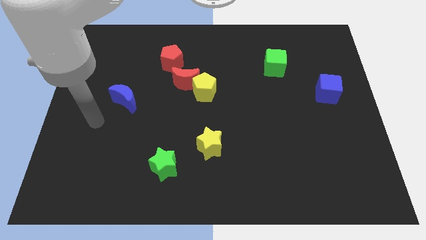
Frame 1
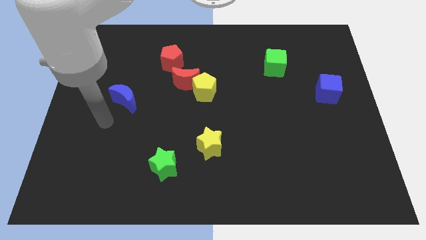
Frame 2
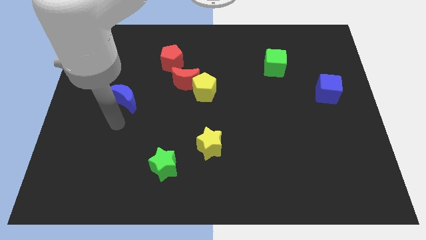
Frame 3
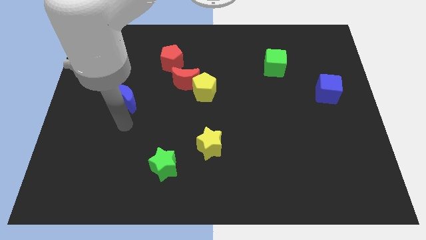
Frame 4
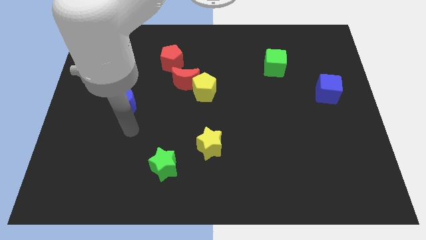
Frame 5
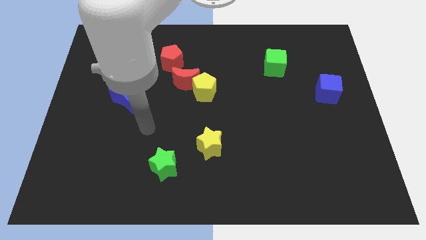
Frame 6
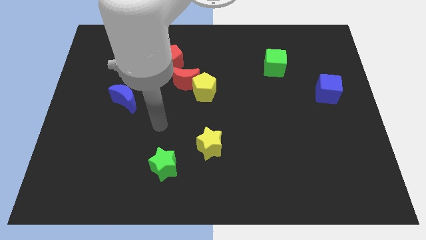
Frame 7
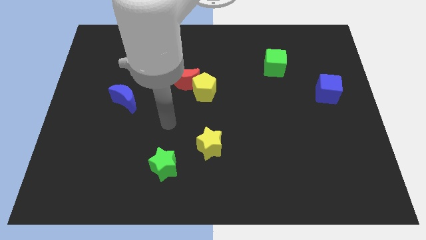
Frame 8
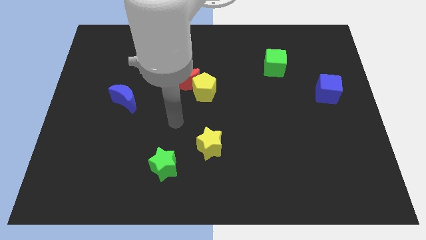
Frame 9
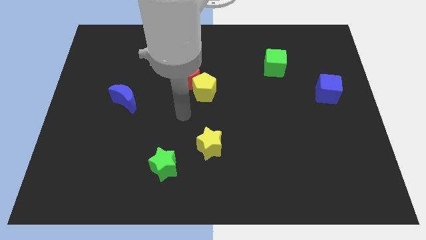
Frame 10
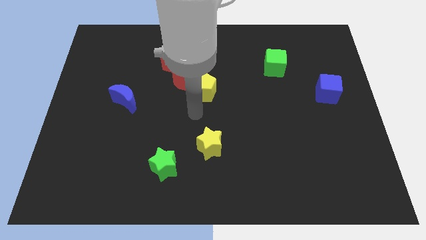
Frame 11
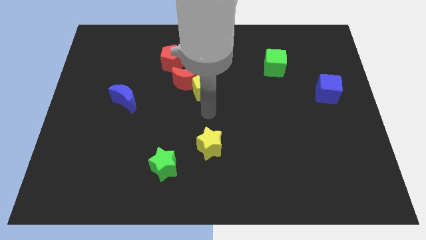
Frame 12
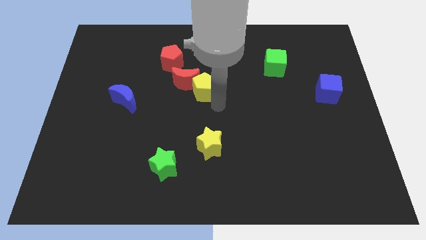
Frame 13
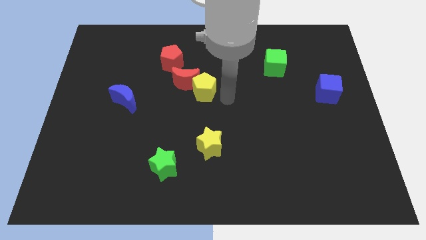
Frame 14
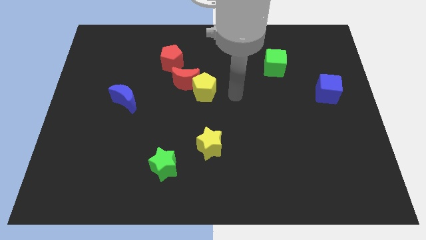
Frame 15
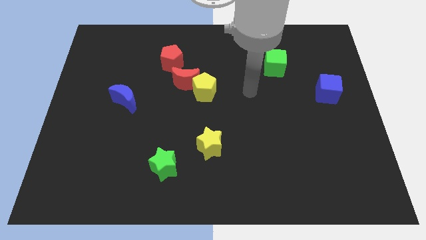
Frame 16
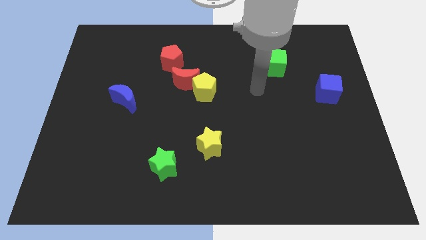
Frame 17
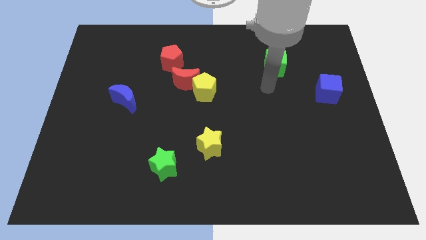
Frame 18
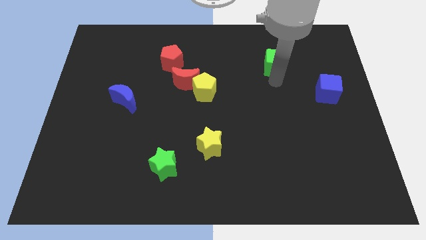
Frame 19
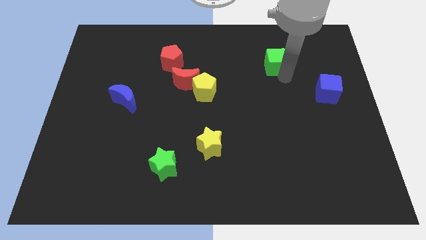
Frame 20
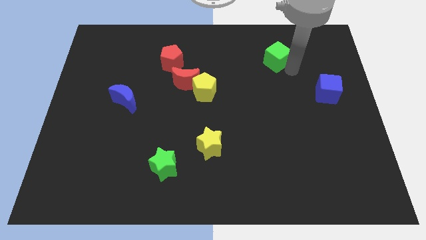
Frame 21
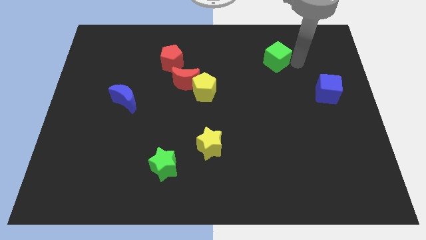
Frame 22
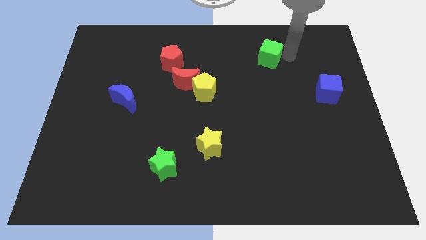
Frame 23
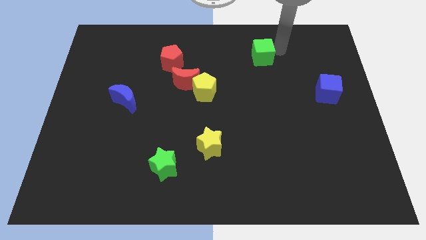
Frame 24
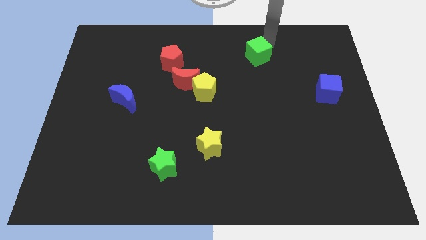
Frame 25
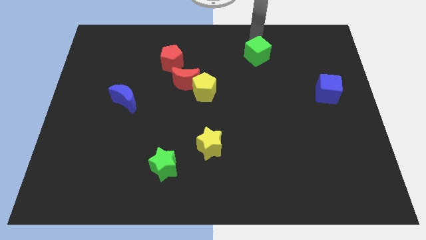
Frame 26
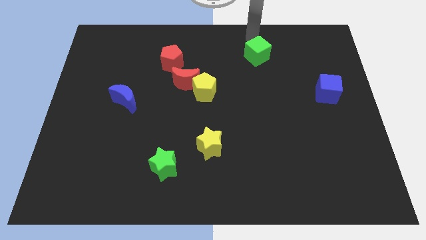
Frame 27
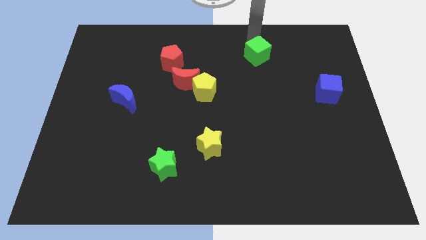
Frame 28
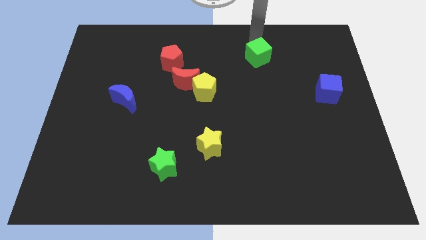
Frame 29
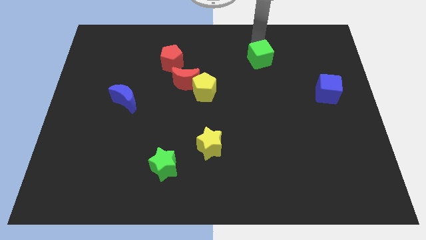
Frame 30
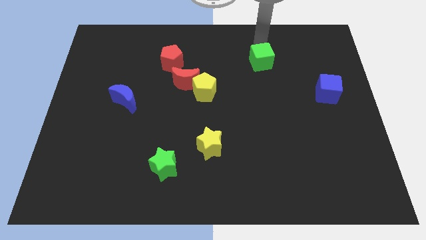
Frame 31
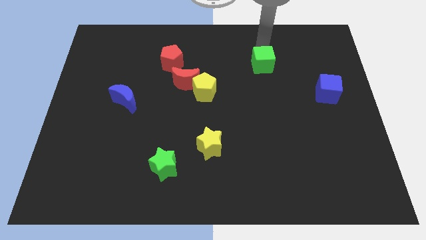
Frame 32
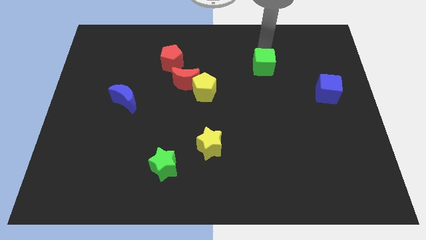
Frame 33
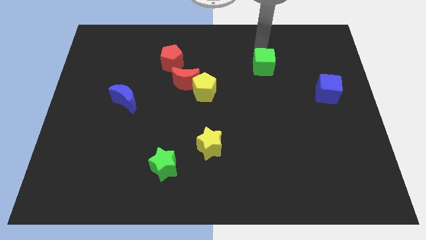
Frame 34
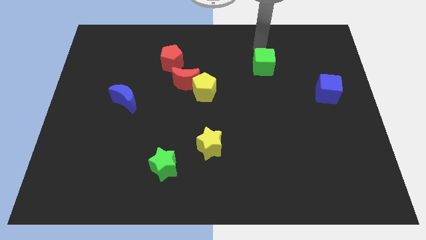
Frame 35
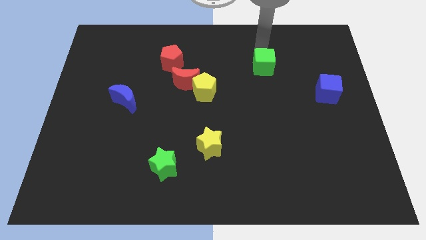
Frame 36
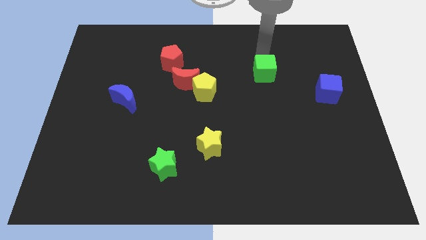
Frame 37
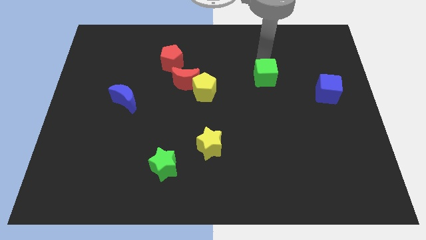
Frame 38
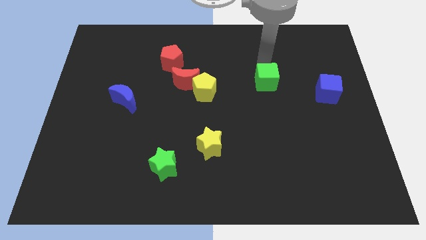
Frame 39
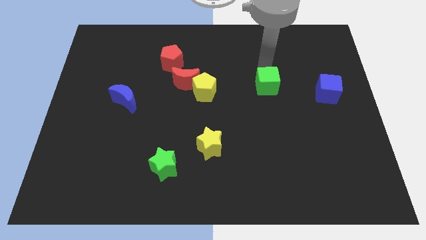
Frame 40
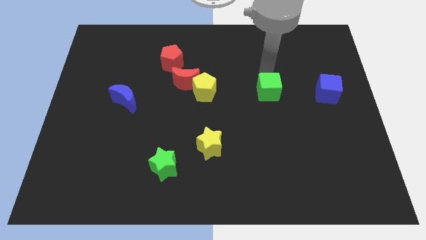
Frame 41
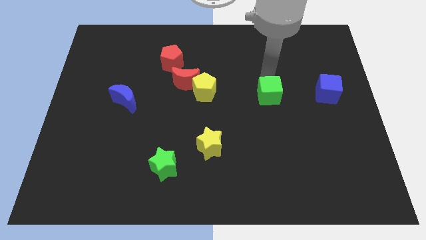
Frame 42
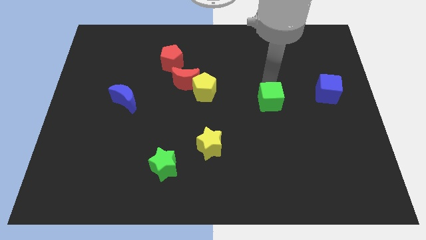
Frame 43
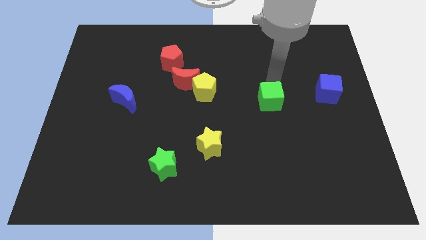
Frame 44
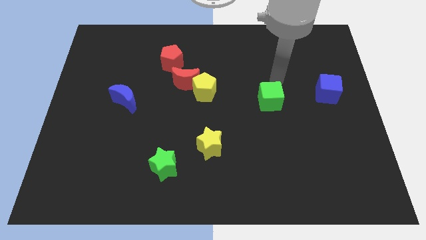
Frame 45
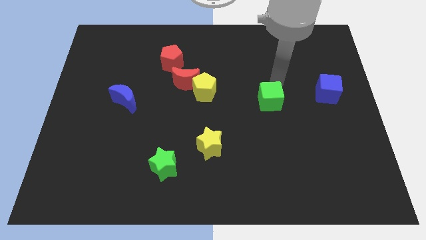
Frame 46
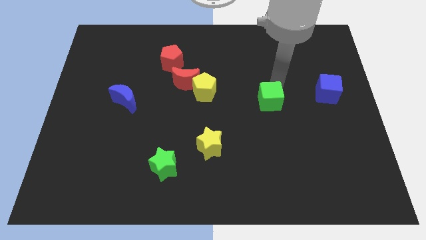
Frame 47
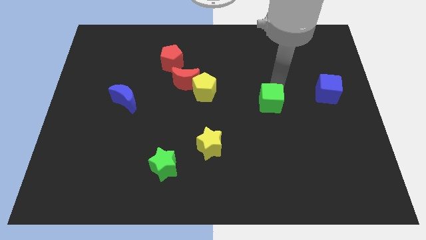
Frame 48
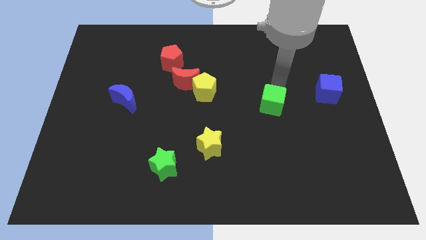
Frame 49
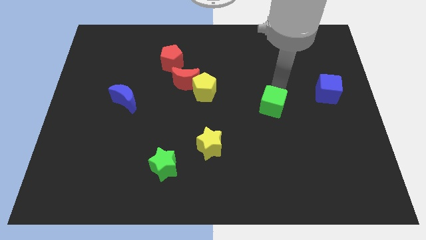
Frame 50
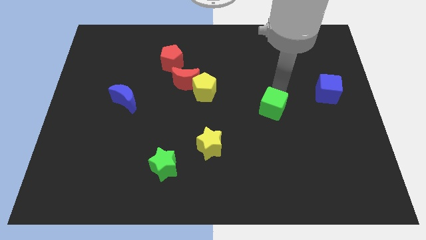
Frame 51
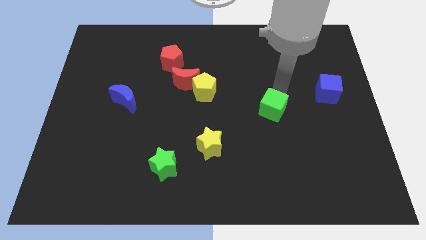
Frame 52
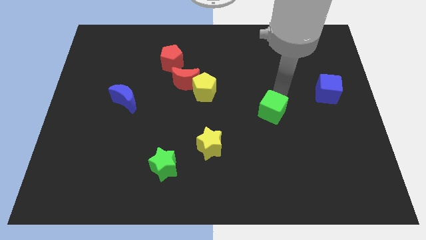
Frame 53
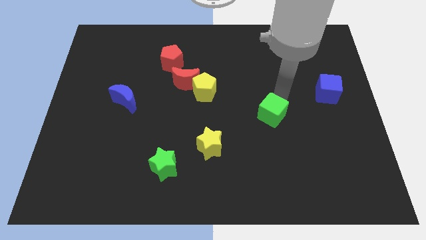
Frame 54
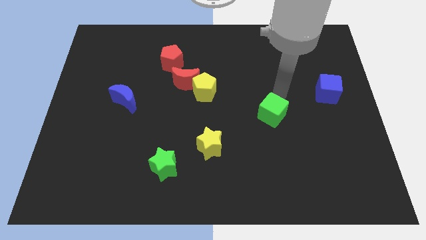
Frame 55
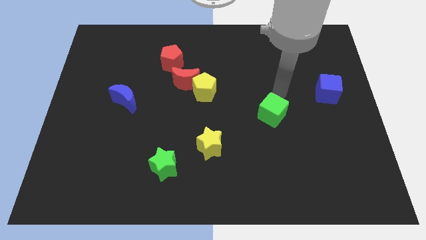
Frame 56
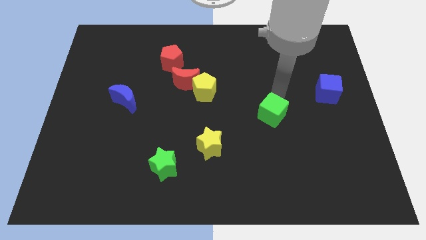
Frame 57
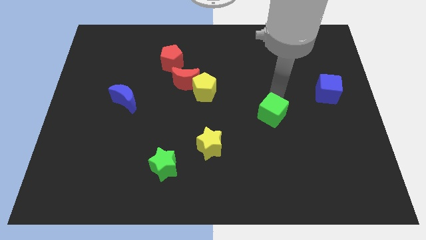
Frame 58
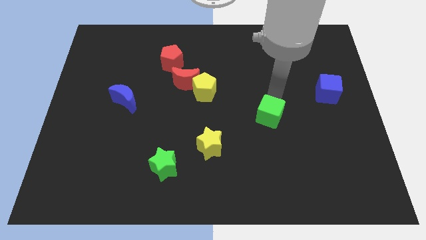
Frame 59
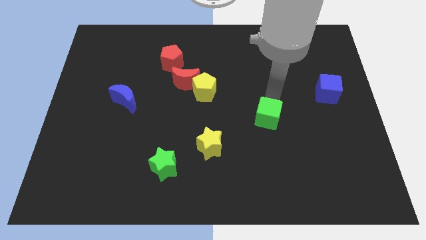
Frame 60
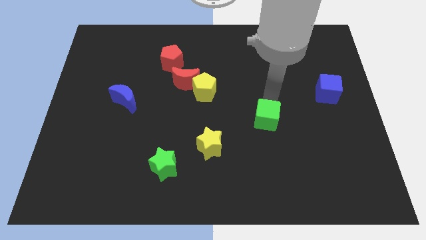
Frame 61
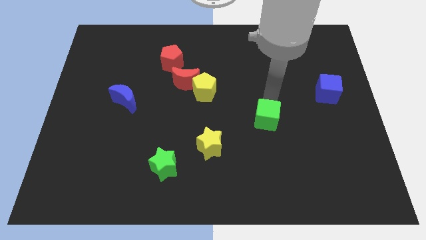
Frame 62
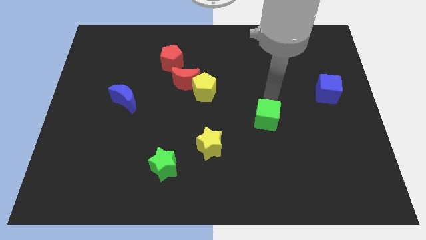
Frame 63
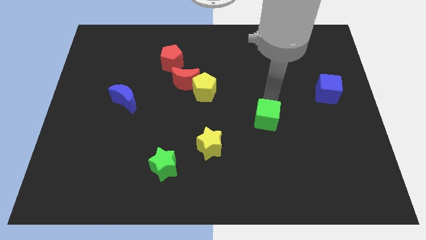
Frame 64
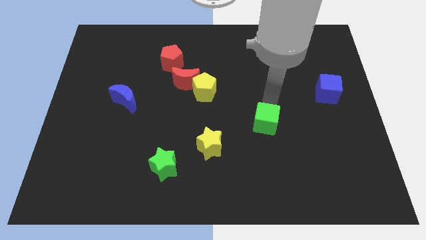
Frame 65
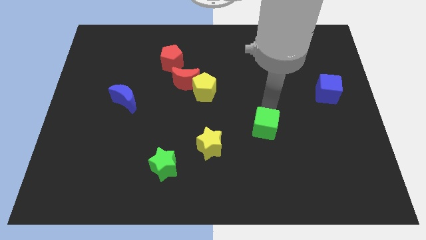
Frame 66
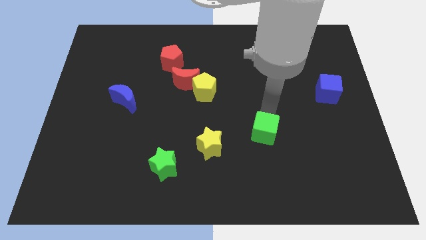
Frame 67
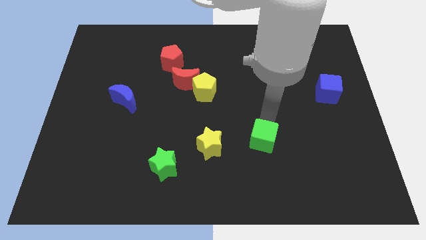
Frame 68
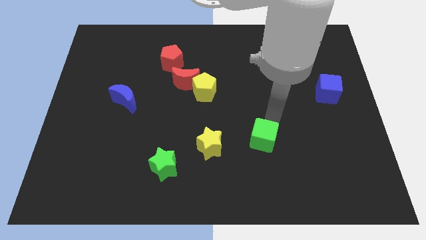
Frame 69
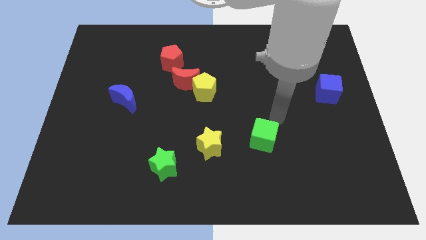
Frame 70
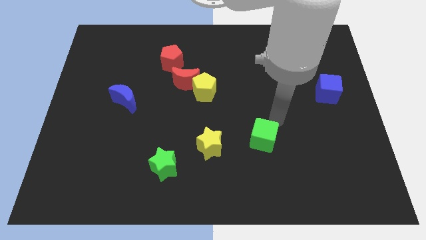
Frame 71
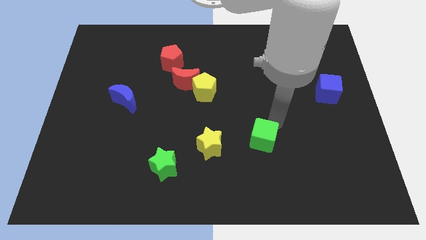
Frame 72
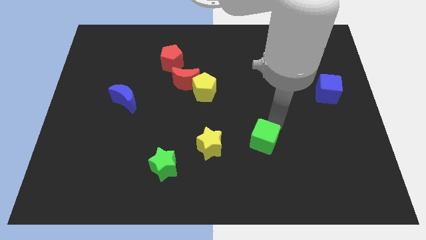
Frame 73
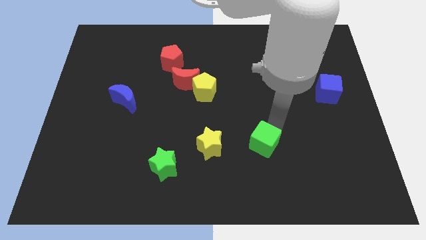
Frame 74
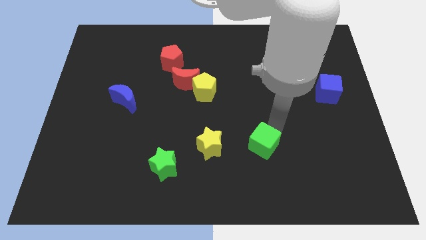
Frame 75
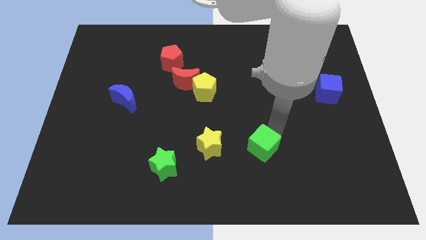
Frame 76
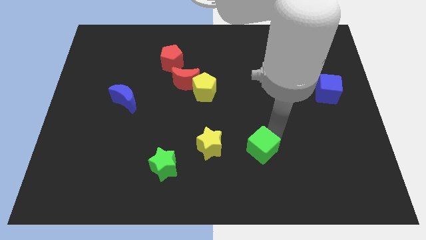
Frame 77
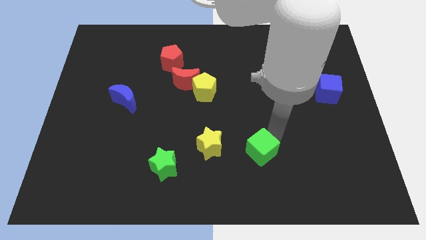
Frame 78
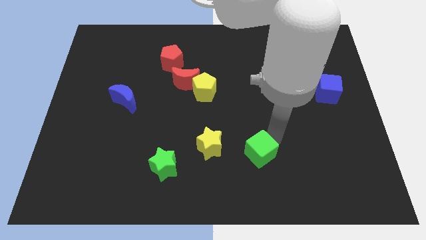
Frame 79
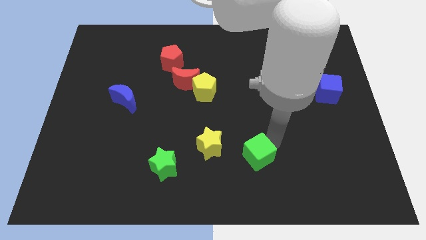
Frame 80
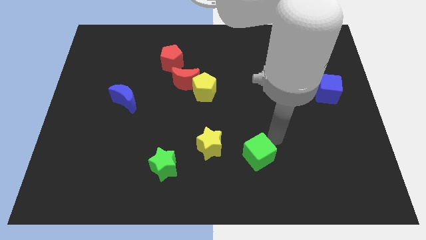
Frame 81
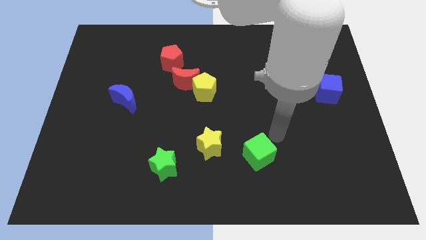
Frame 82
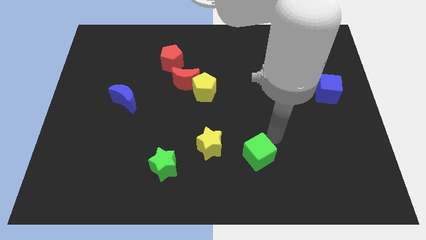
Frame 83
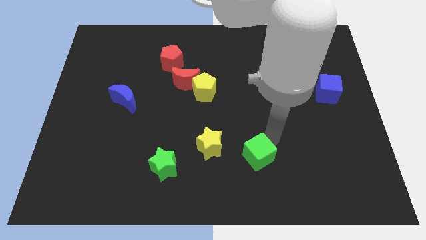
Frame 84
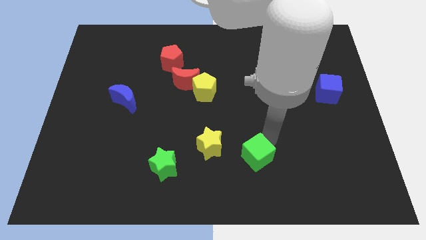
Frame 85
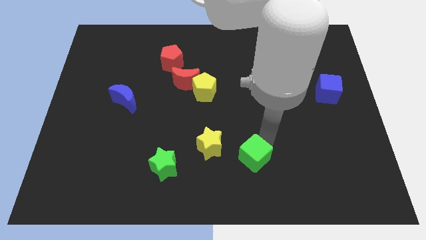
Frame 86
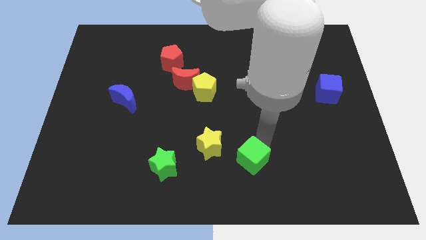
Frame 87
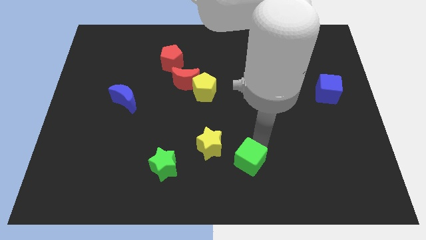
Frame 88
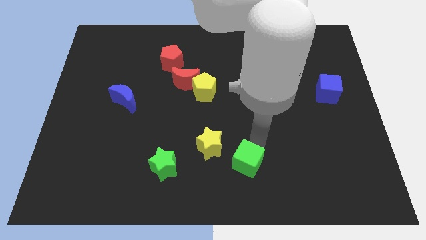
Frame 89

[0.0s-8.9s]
put the green cube to the bottom
